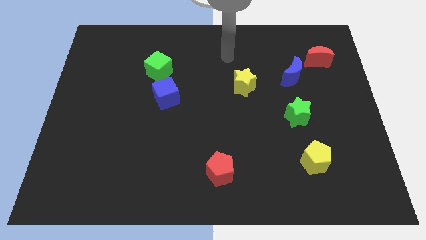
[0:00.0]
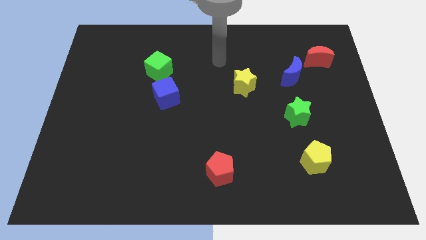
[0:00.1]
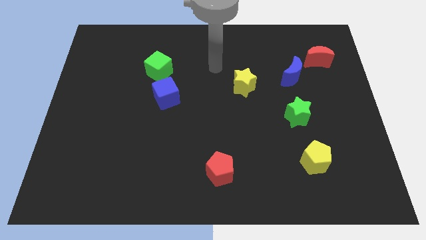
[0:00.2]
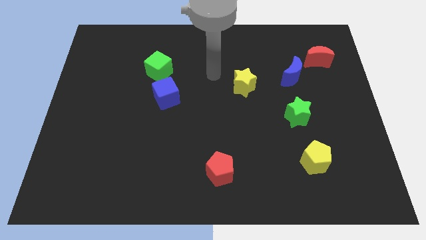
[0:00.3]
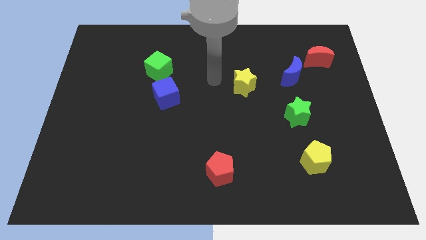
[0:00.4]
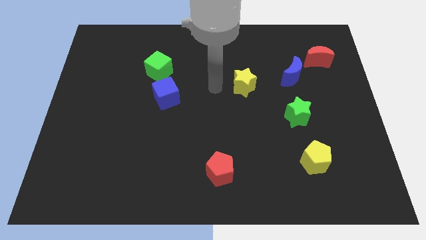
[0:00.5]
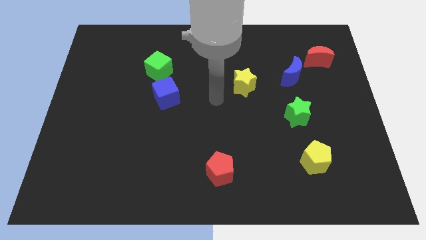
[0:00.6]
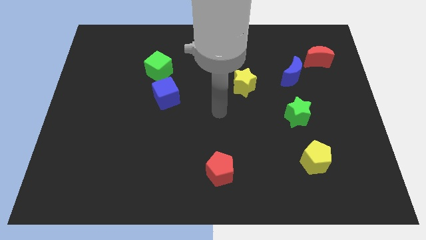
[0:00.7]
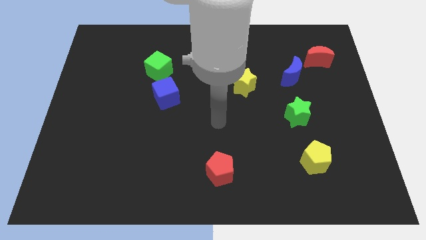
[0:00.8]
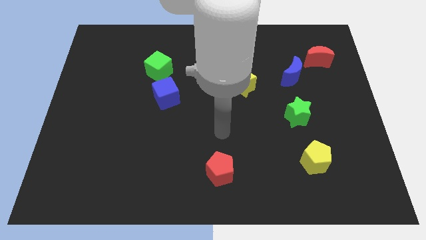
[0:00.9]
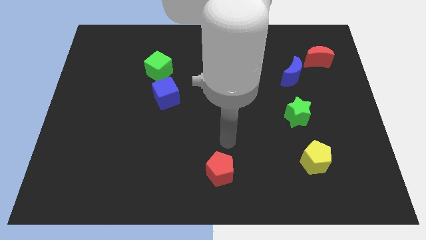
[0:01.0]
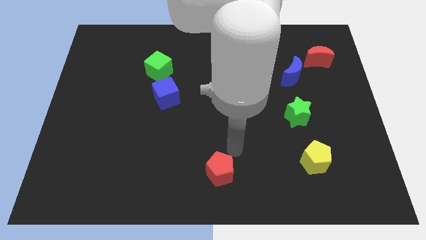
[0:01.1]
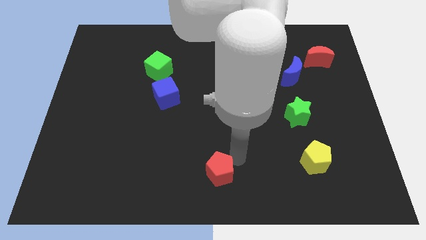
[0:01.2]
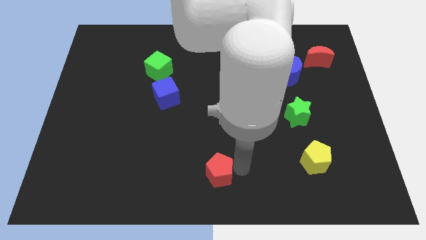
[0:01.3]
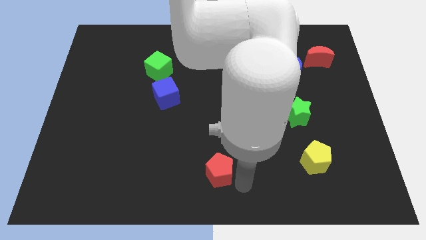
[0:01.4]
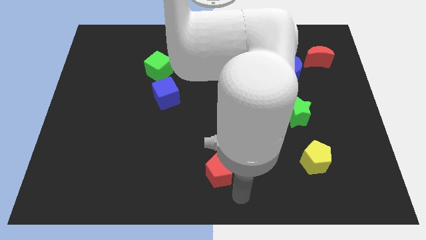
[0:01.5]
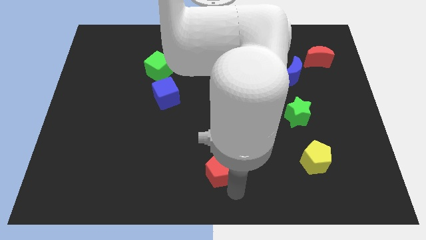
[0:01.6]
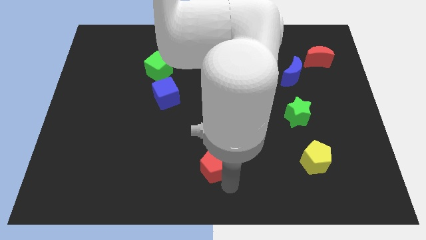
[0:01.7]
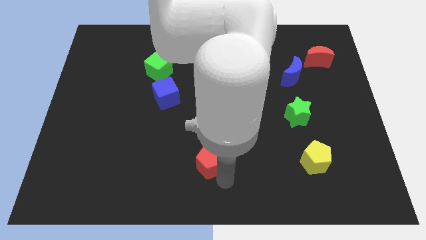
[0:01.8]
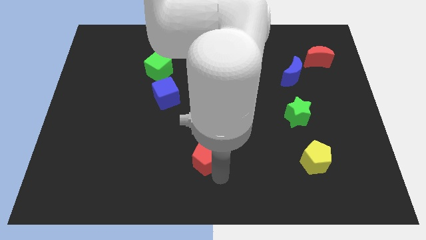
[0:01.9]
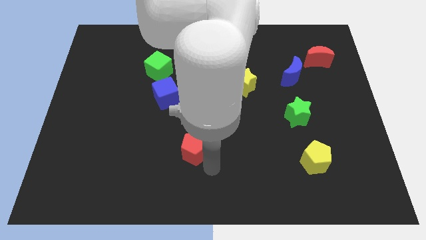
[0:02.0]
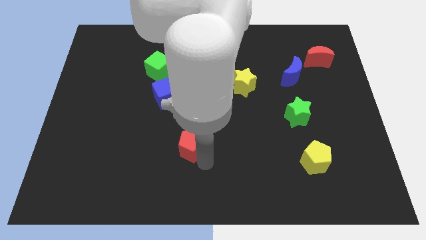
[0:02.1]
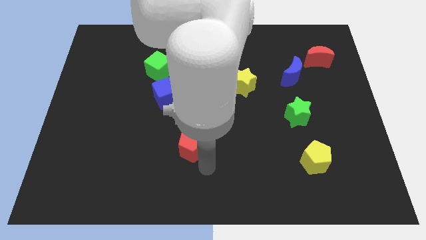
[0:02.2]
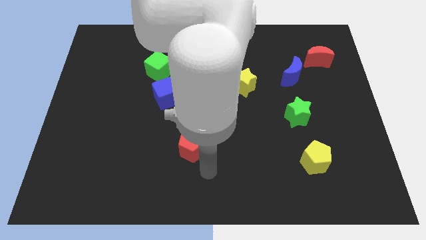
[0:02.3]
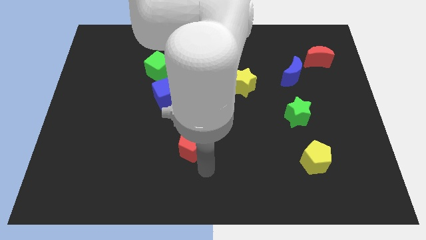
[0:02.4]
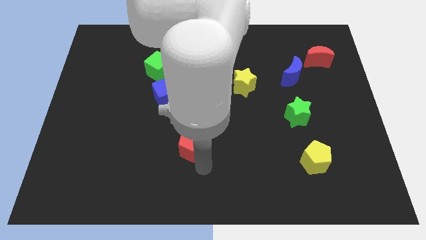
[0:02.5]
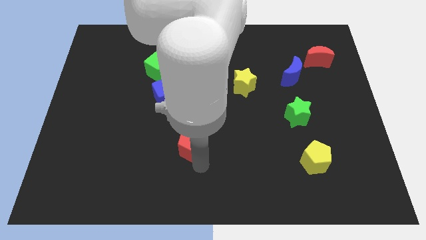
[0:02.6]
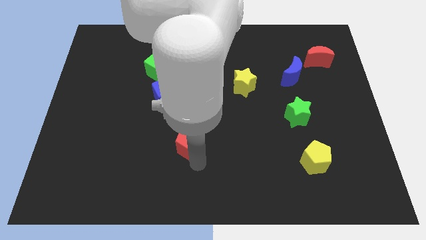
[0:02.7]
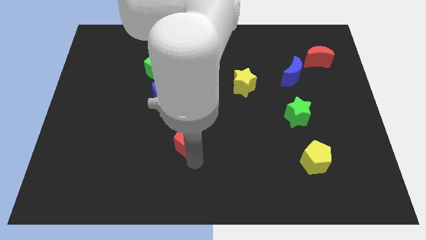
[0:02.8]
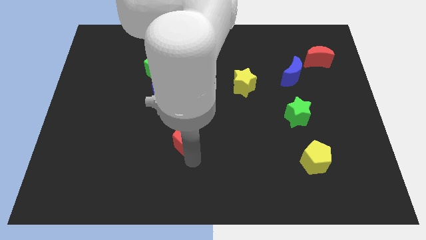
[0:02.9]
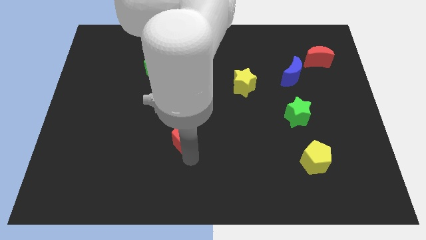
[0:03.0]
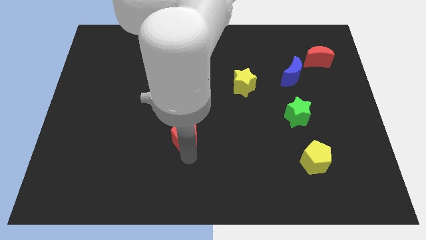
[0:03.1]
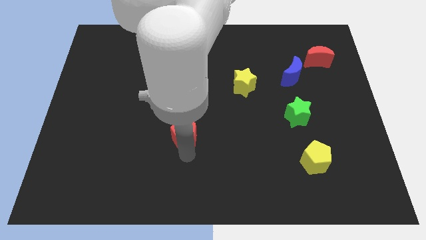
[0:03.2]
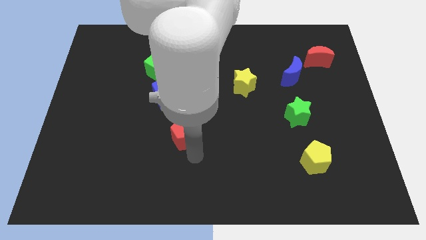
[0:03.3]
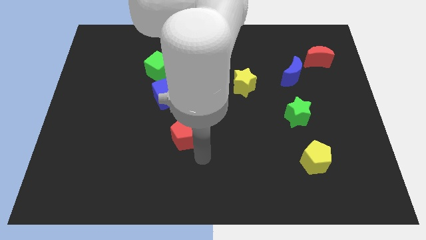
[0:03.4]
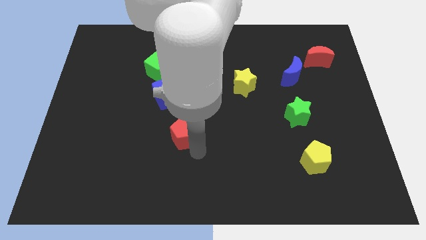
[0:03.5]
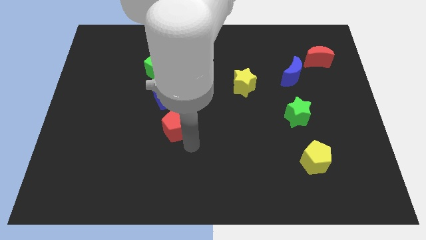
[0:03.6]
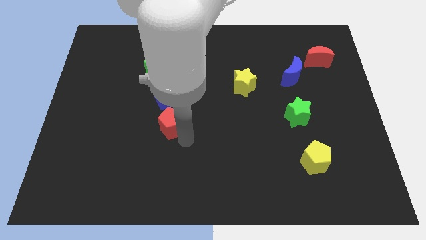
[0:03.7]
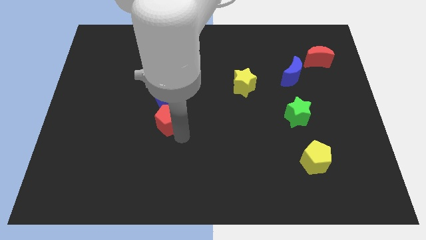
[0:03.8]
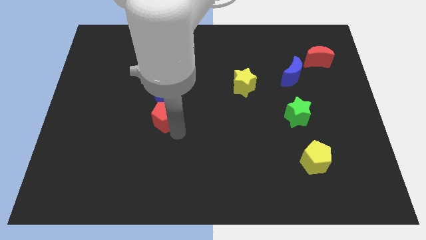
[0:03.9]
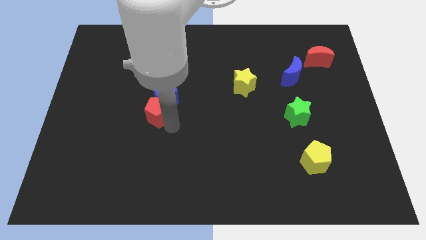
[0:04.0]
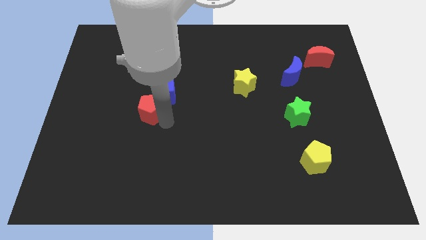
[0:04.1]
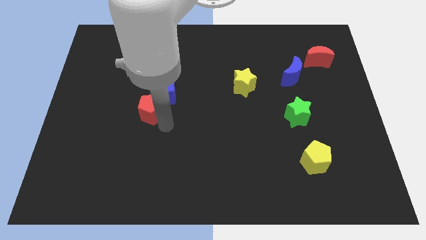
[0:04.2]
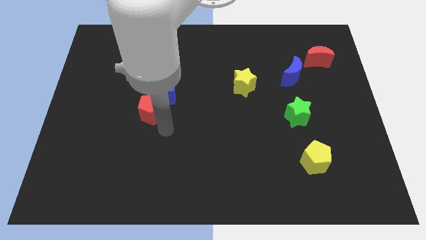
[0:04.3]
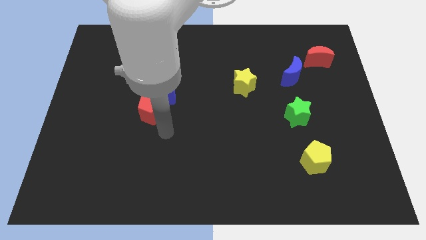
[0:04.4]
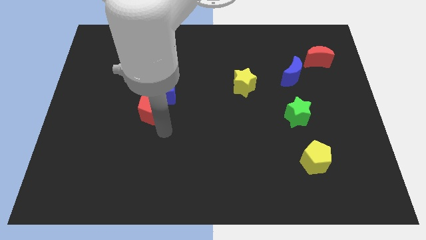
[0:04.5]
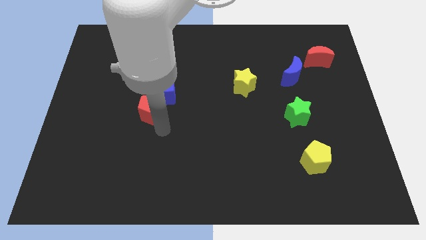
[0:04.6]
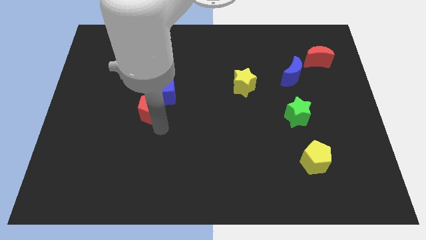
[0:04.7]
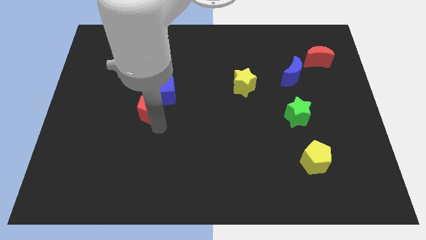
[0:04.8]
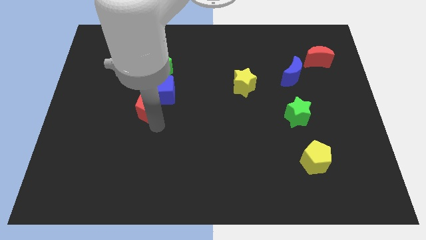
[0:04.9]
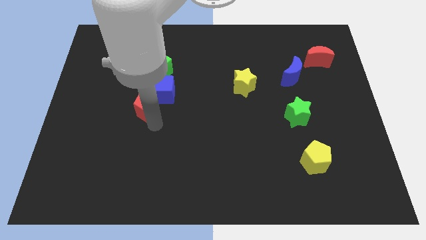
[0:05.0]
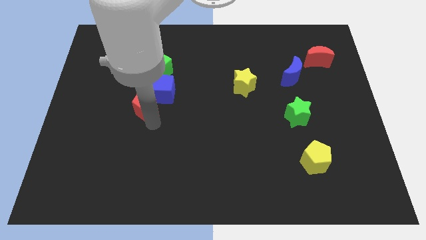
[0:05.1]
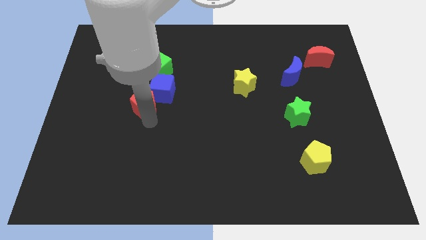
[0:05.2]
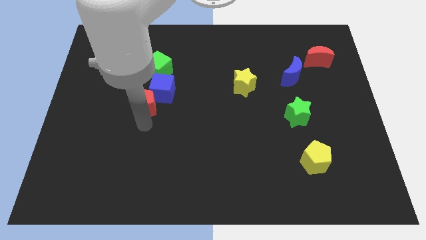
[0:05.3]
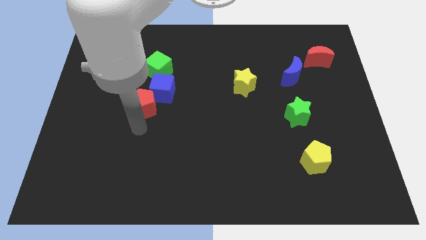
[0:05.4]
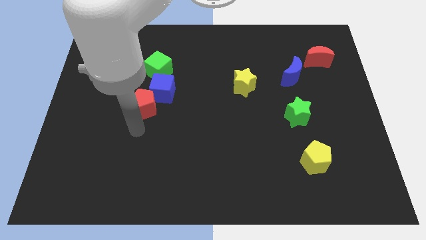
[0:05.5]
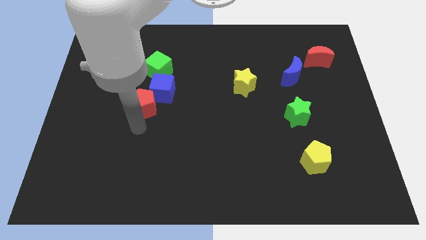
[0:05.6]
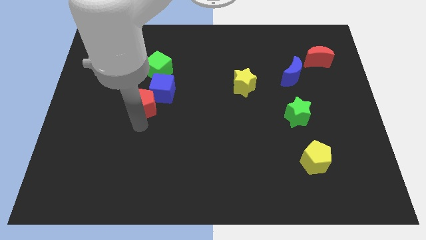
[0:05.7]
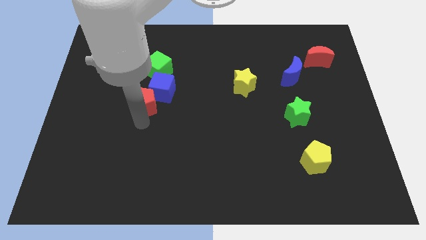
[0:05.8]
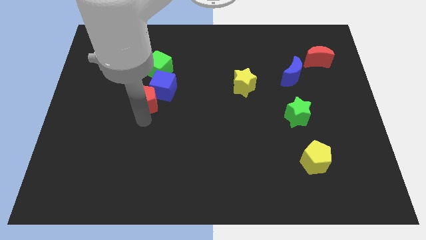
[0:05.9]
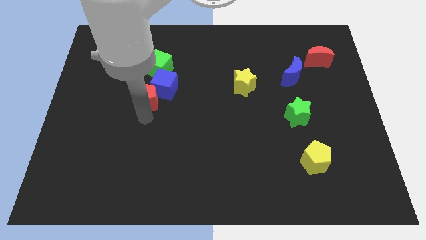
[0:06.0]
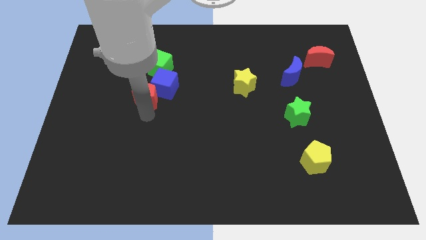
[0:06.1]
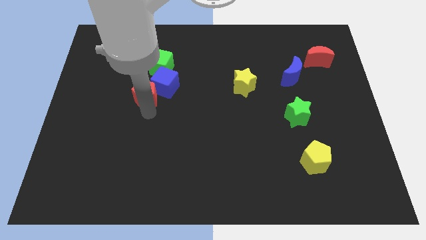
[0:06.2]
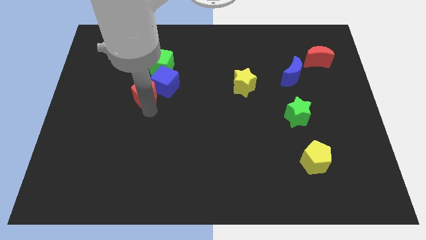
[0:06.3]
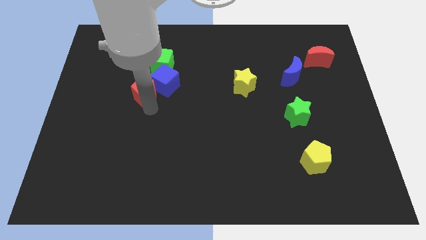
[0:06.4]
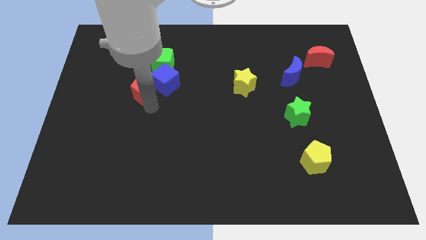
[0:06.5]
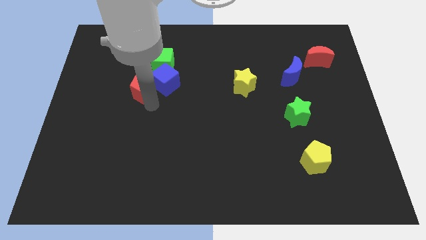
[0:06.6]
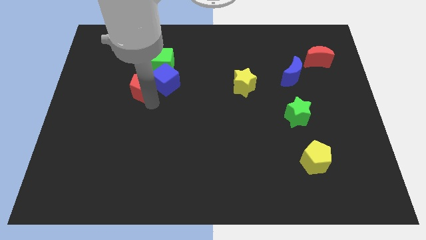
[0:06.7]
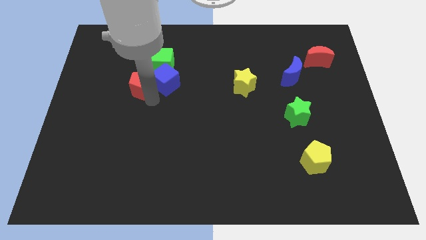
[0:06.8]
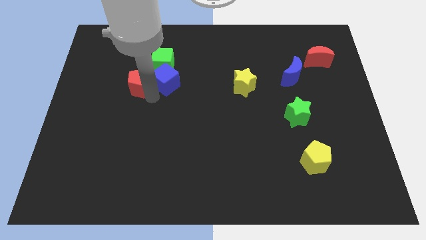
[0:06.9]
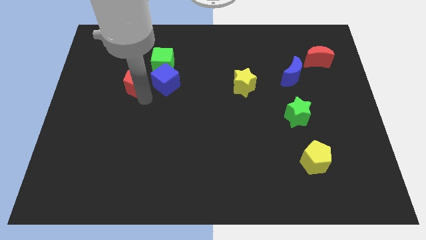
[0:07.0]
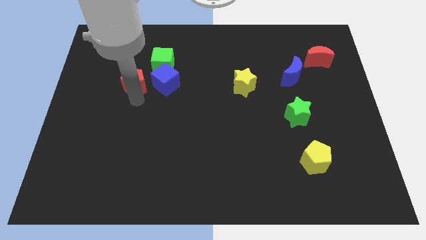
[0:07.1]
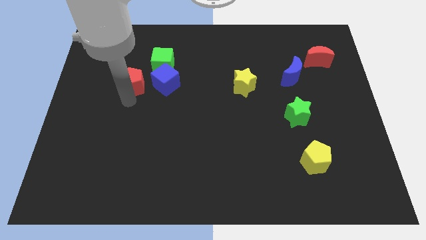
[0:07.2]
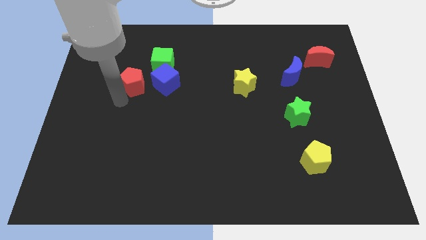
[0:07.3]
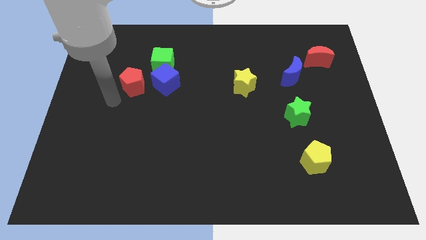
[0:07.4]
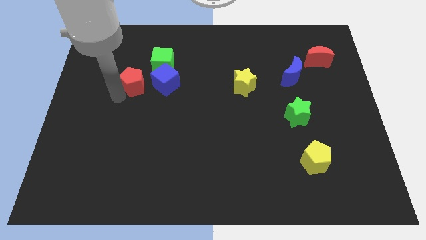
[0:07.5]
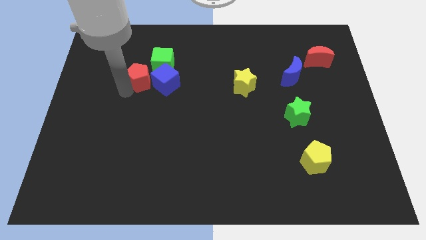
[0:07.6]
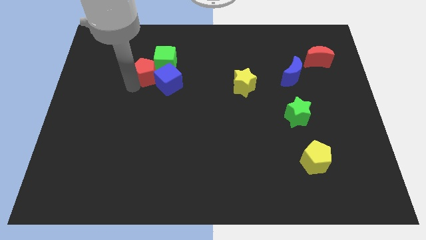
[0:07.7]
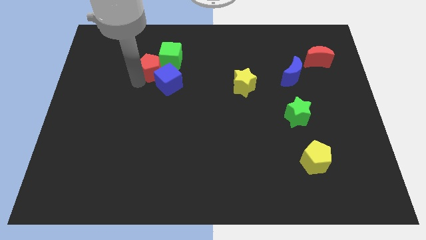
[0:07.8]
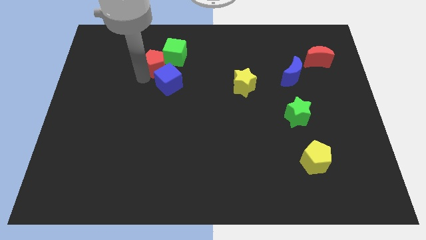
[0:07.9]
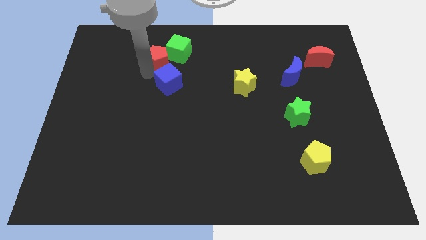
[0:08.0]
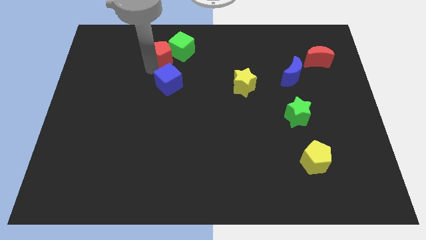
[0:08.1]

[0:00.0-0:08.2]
push the red pentagon towards the green cube
